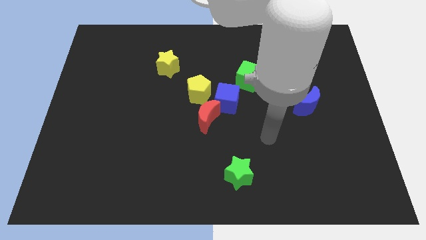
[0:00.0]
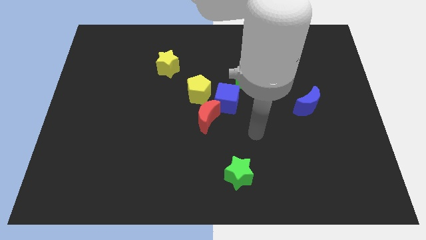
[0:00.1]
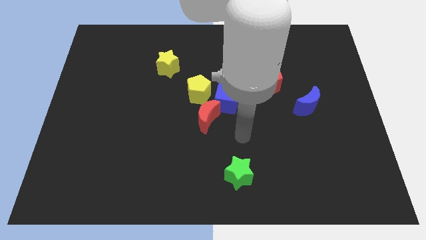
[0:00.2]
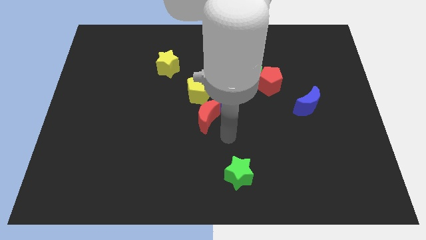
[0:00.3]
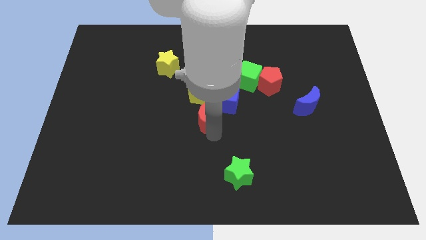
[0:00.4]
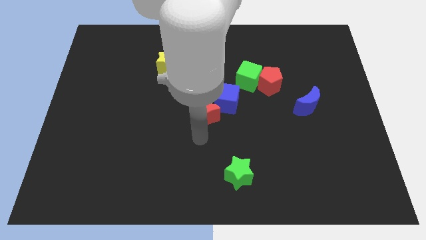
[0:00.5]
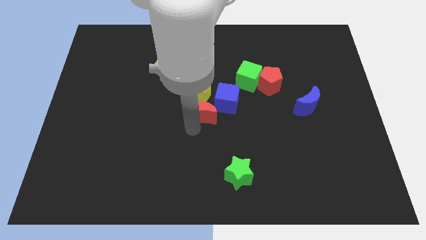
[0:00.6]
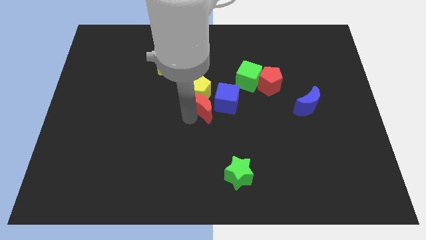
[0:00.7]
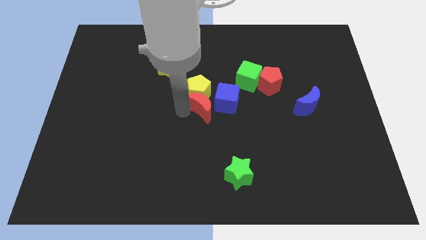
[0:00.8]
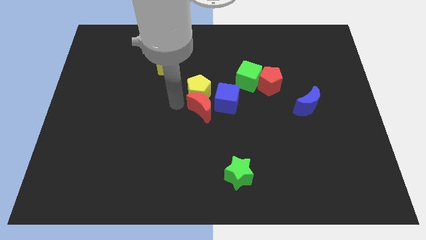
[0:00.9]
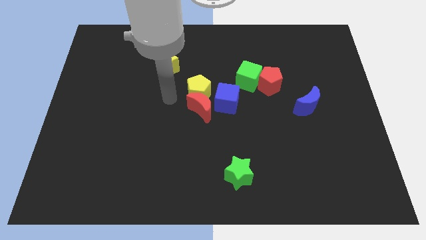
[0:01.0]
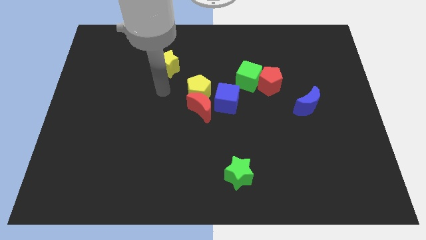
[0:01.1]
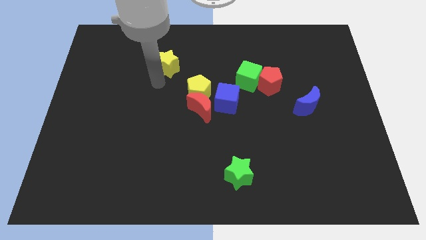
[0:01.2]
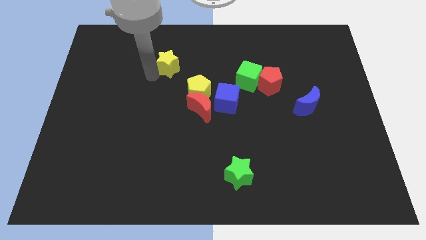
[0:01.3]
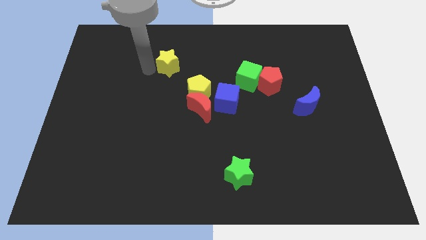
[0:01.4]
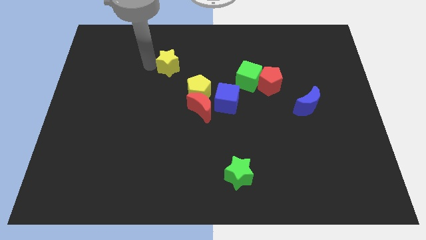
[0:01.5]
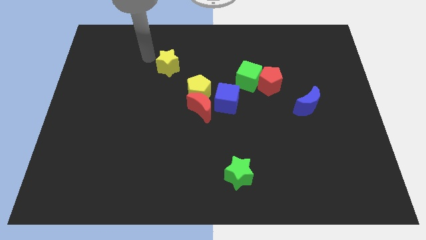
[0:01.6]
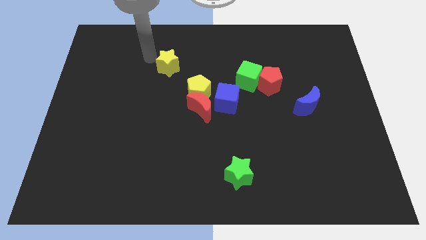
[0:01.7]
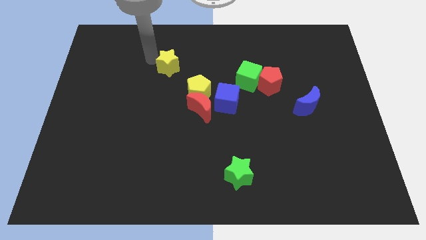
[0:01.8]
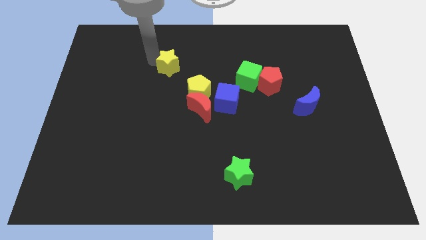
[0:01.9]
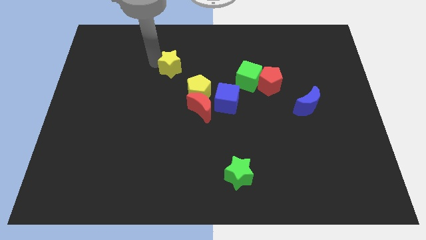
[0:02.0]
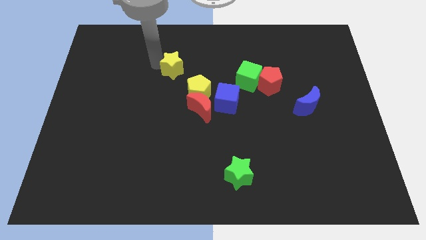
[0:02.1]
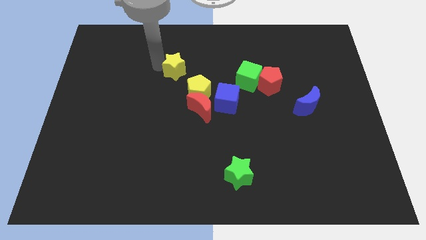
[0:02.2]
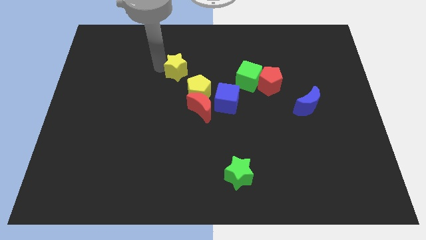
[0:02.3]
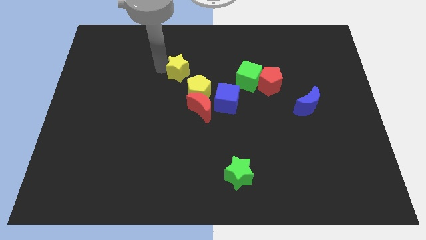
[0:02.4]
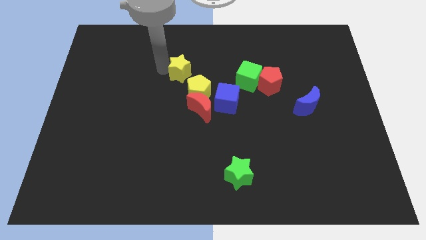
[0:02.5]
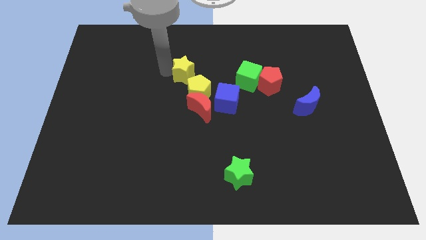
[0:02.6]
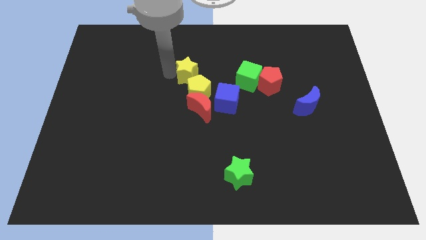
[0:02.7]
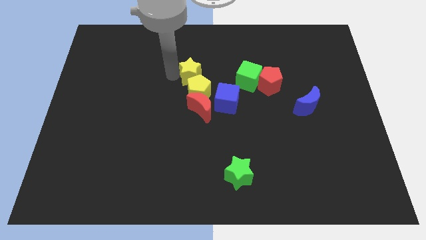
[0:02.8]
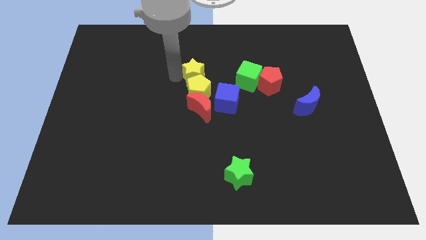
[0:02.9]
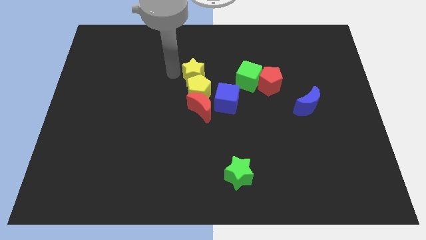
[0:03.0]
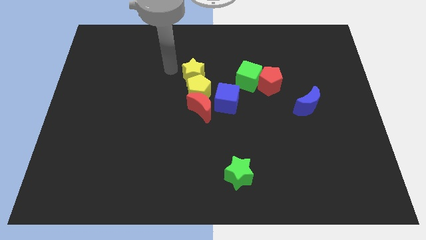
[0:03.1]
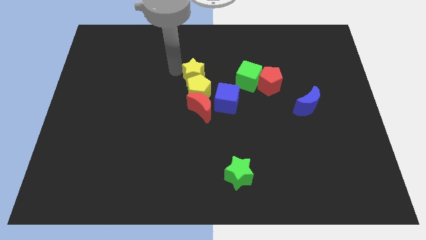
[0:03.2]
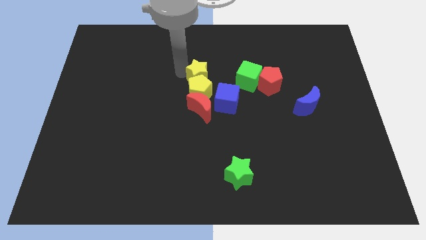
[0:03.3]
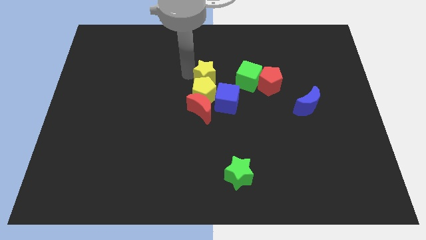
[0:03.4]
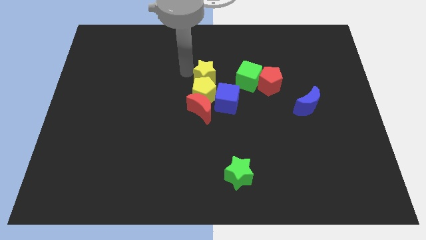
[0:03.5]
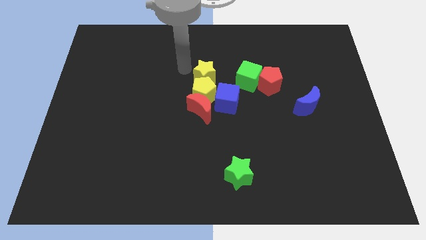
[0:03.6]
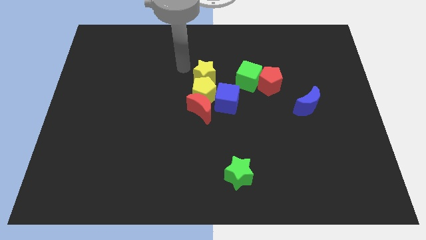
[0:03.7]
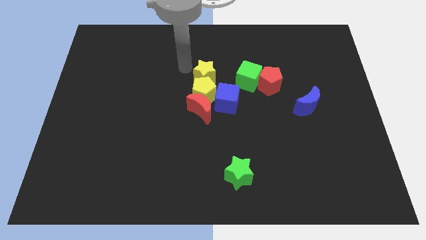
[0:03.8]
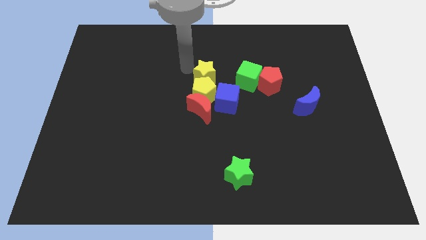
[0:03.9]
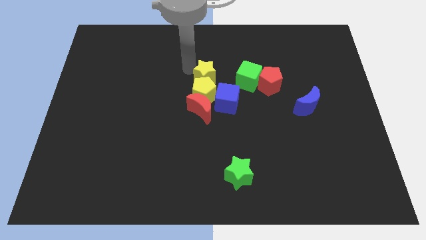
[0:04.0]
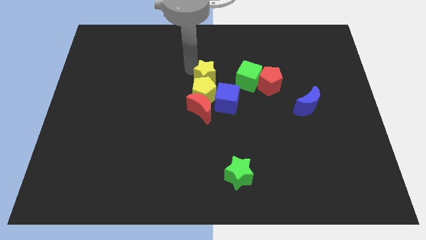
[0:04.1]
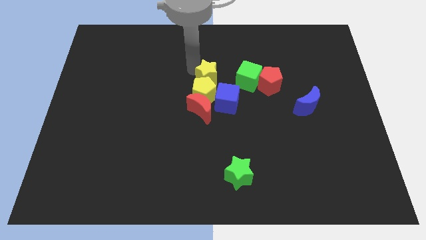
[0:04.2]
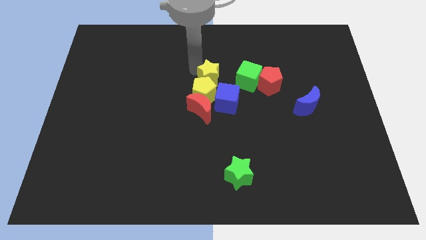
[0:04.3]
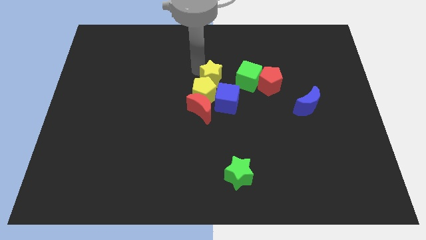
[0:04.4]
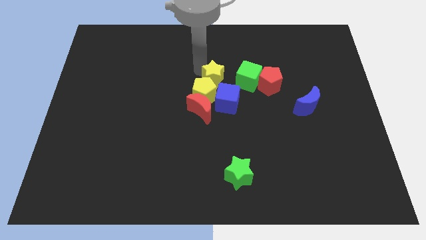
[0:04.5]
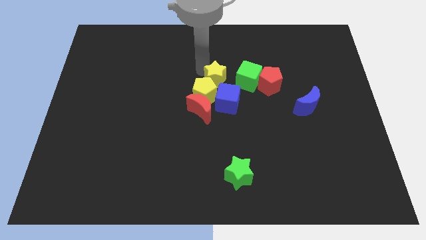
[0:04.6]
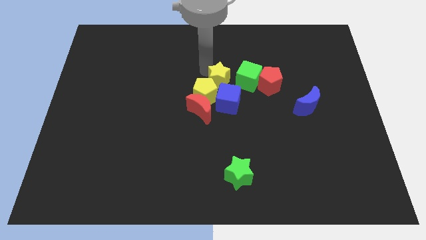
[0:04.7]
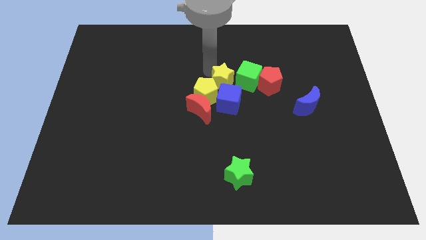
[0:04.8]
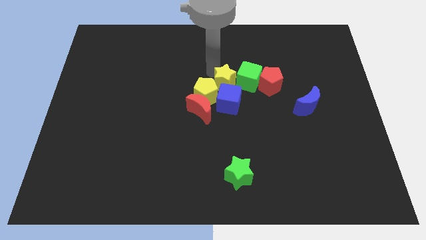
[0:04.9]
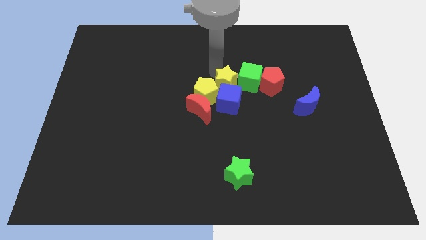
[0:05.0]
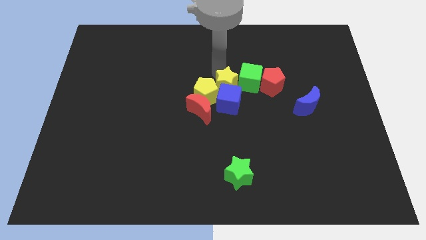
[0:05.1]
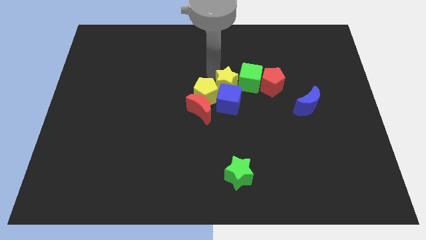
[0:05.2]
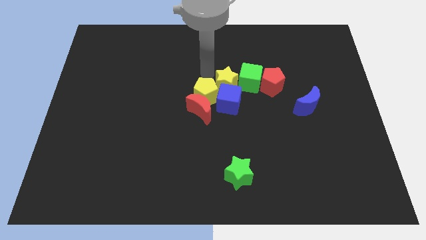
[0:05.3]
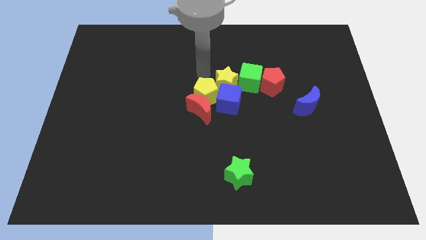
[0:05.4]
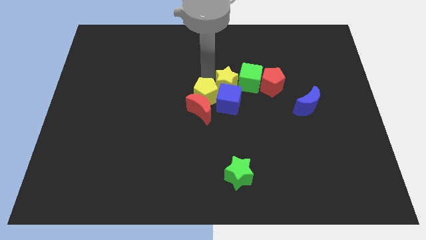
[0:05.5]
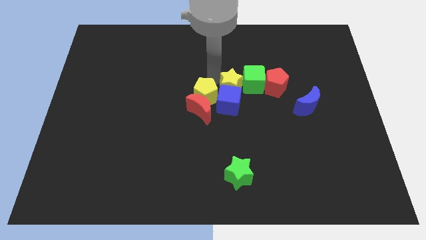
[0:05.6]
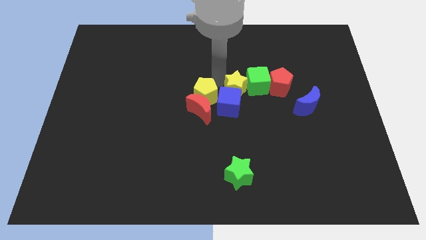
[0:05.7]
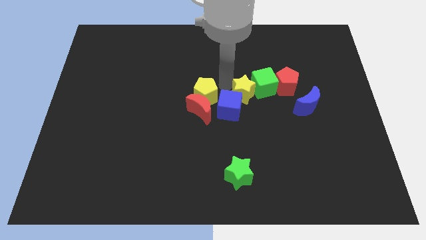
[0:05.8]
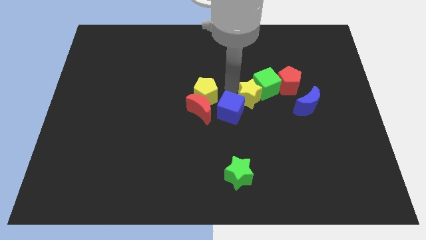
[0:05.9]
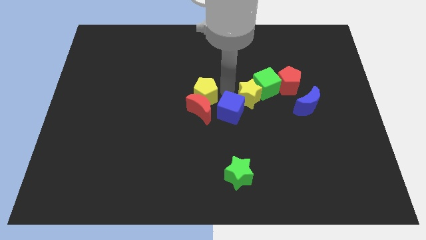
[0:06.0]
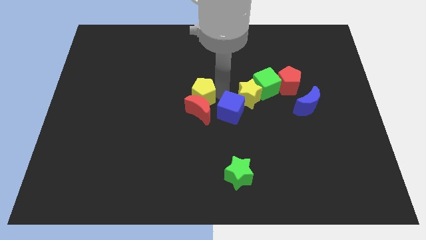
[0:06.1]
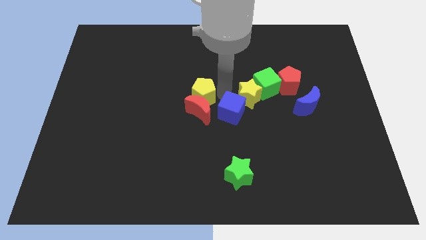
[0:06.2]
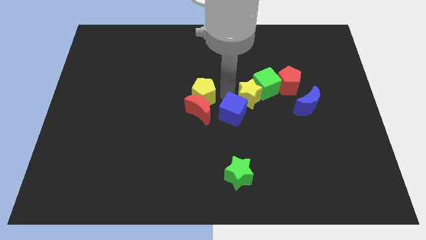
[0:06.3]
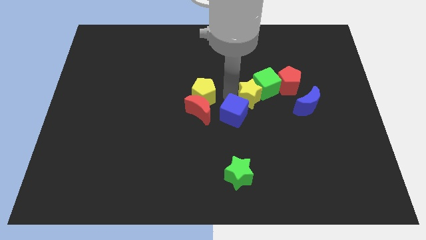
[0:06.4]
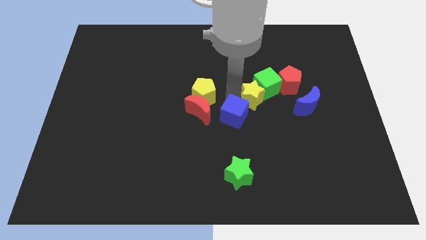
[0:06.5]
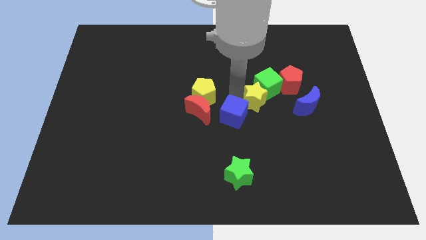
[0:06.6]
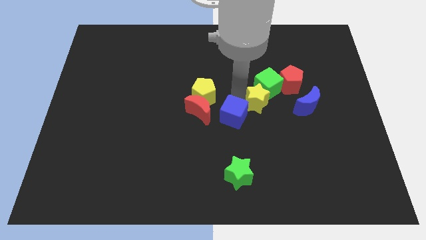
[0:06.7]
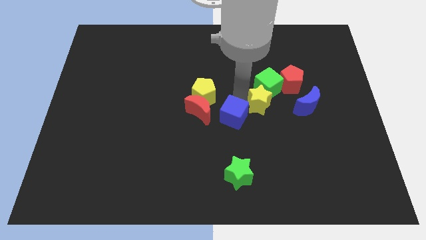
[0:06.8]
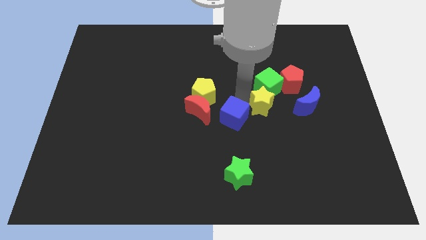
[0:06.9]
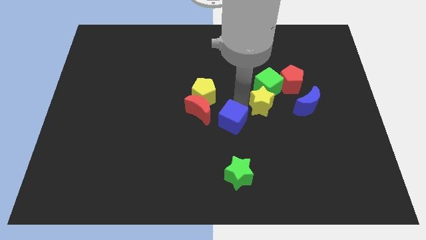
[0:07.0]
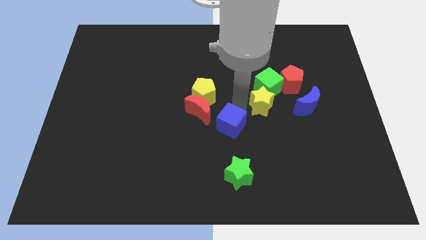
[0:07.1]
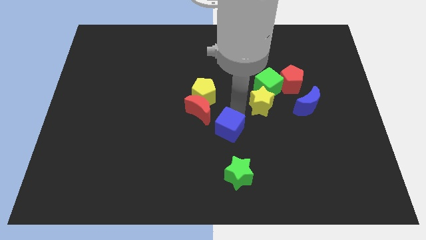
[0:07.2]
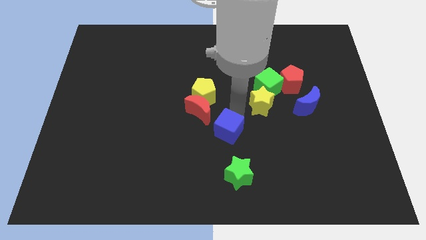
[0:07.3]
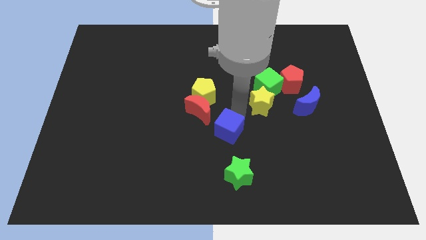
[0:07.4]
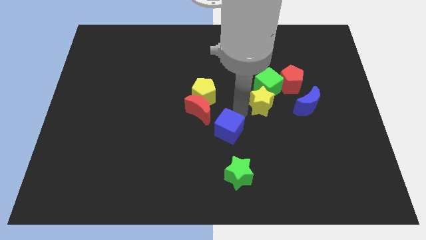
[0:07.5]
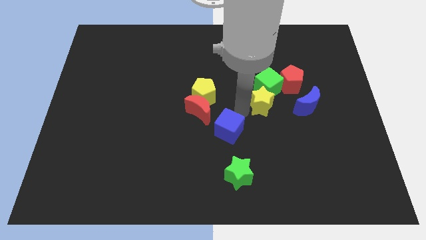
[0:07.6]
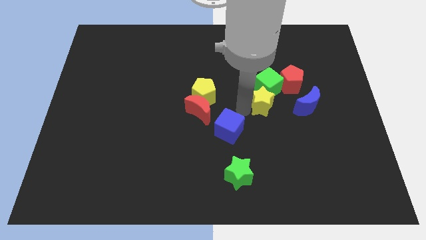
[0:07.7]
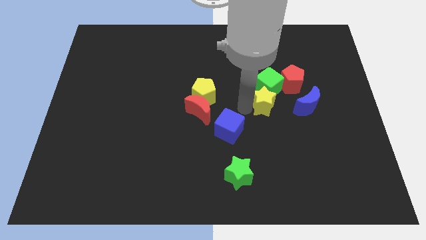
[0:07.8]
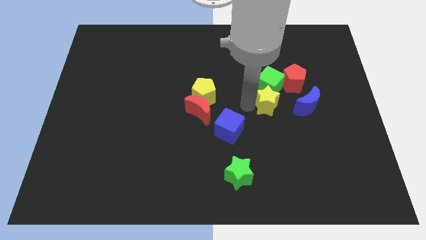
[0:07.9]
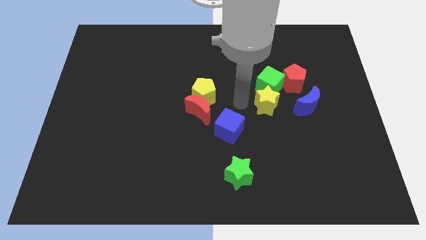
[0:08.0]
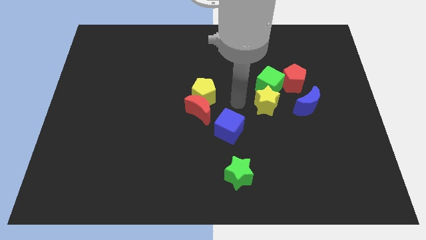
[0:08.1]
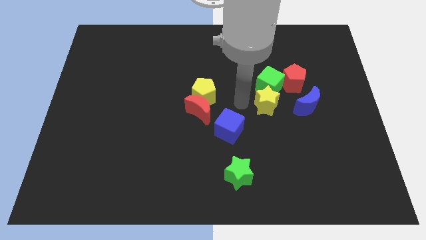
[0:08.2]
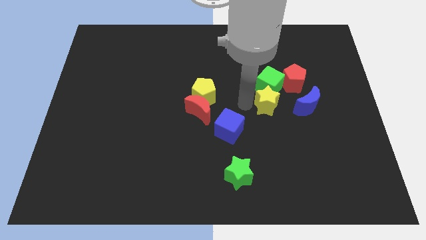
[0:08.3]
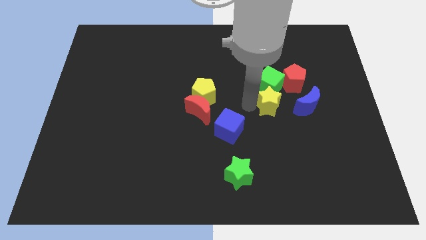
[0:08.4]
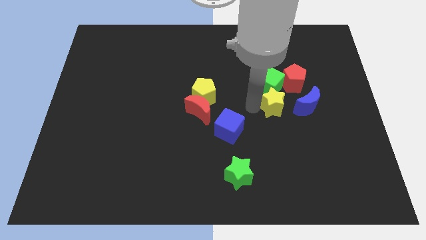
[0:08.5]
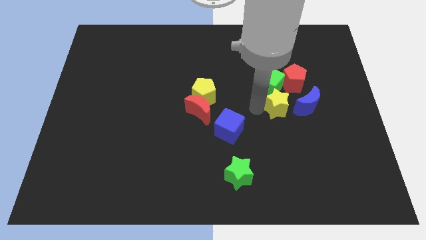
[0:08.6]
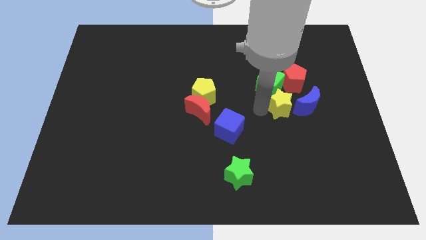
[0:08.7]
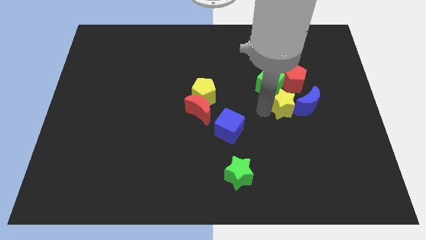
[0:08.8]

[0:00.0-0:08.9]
move the yellow star next to the blue moon
